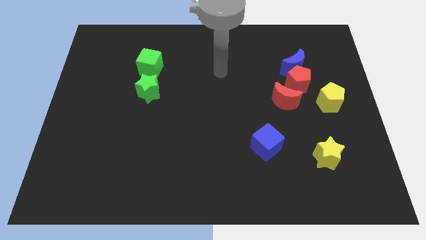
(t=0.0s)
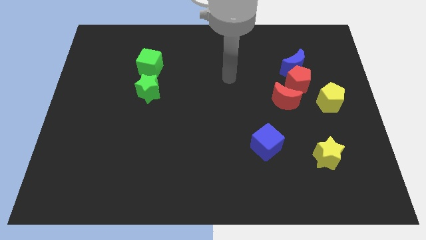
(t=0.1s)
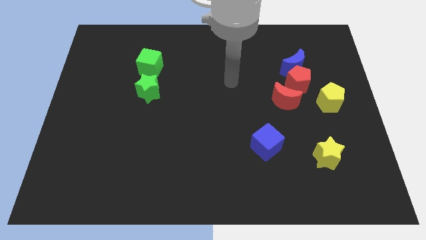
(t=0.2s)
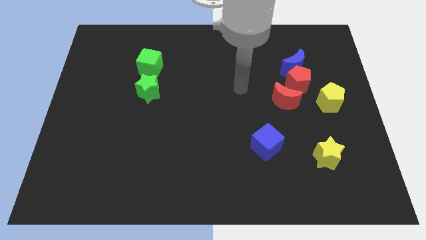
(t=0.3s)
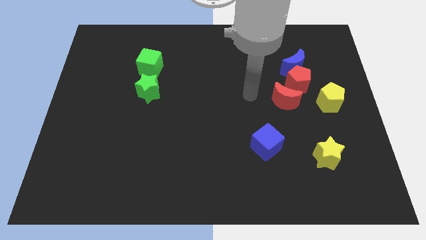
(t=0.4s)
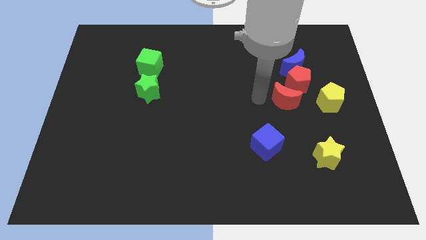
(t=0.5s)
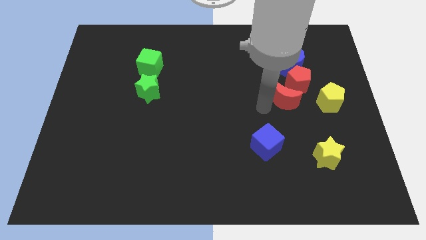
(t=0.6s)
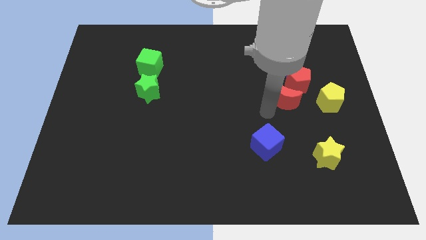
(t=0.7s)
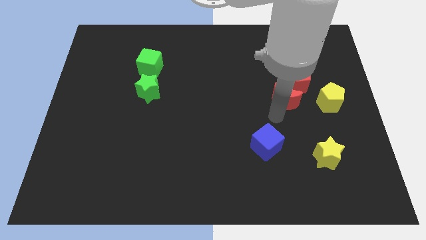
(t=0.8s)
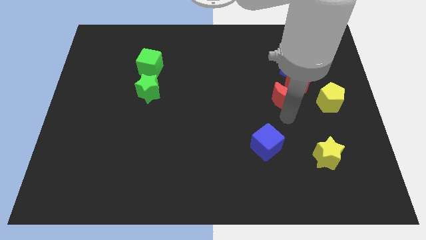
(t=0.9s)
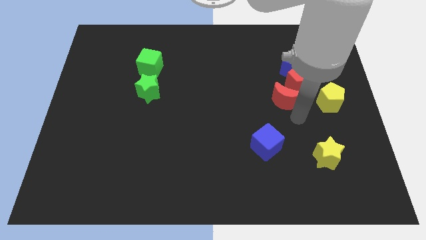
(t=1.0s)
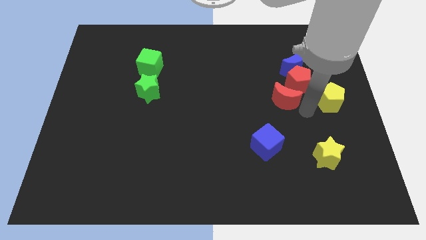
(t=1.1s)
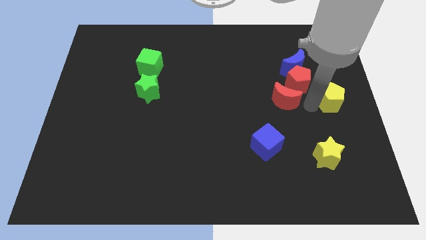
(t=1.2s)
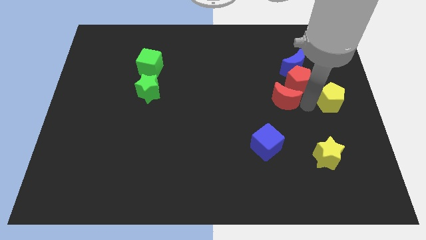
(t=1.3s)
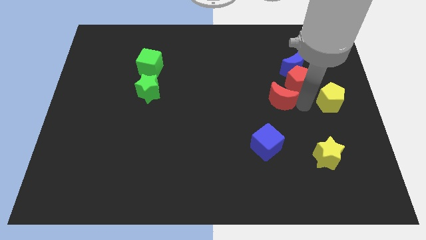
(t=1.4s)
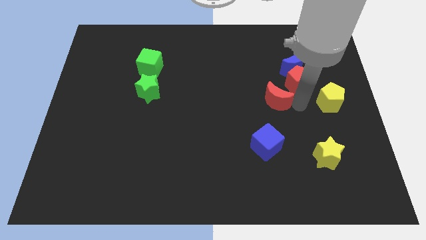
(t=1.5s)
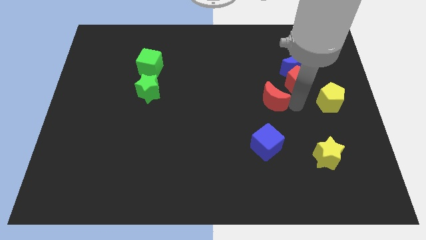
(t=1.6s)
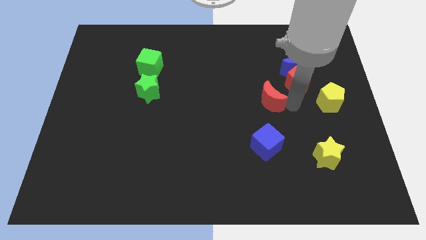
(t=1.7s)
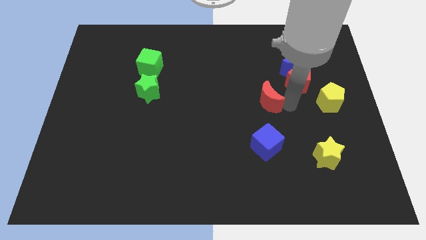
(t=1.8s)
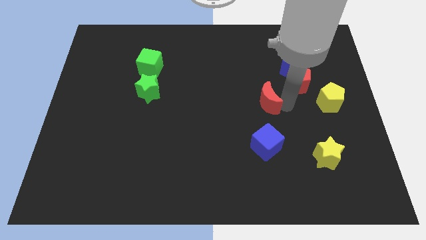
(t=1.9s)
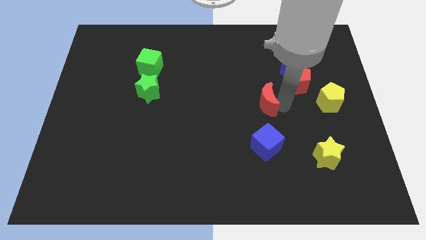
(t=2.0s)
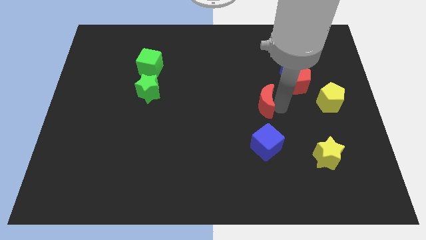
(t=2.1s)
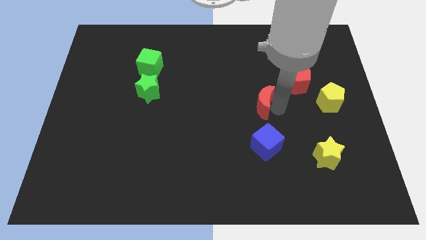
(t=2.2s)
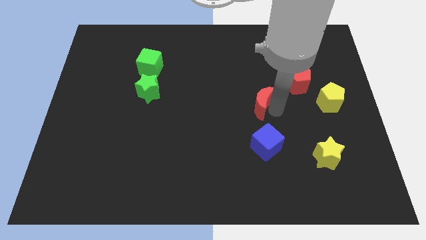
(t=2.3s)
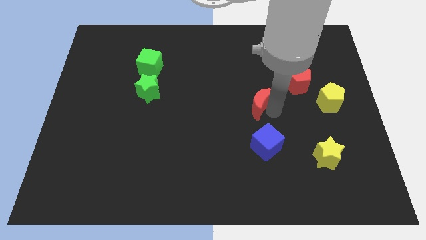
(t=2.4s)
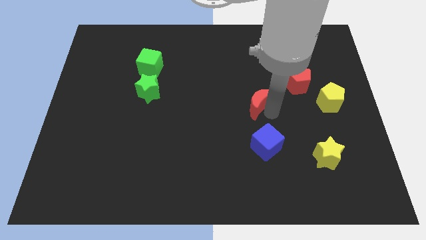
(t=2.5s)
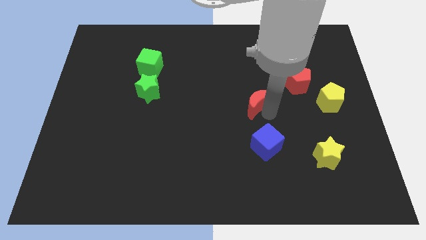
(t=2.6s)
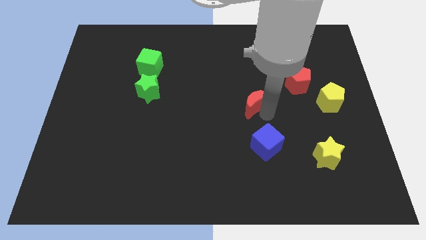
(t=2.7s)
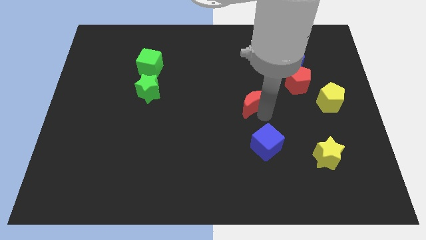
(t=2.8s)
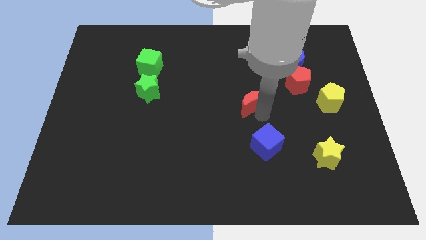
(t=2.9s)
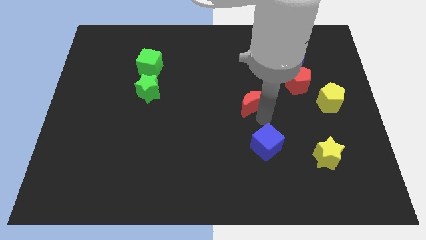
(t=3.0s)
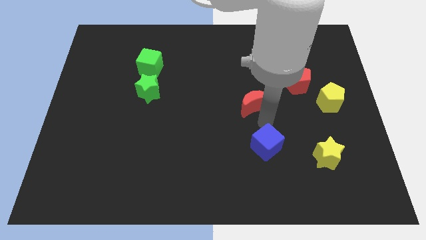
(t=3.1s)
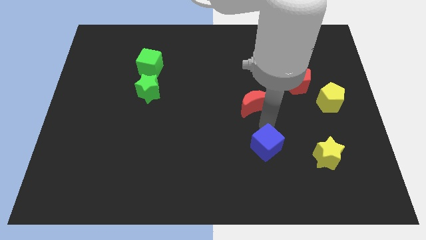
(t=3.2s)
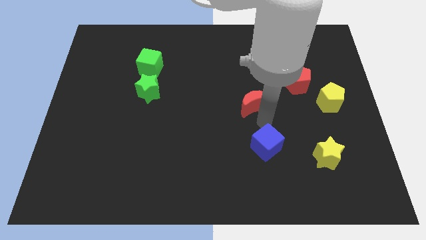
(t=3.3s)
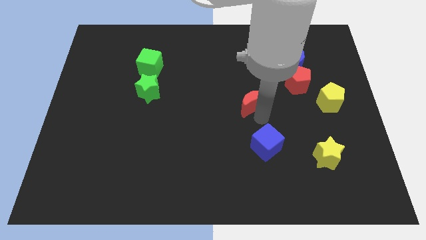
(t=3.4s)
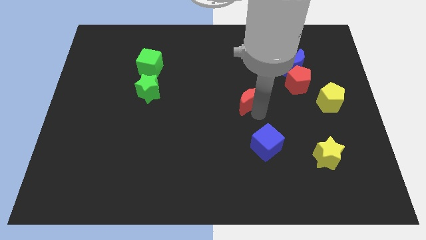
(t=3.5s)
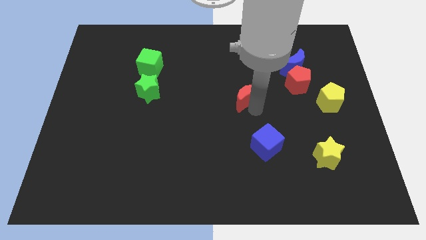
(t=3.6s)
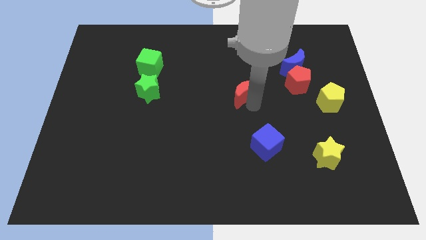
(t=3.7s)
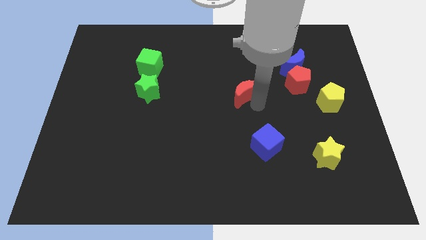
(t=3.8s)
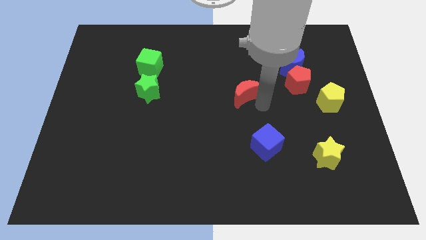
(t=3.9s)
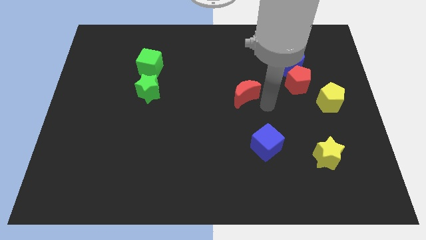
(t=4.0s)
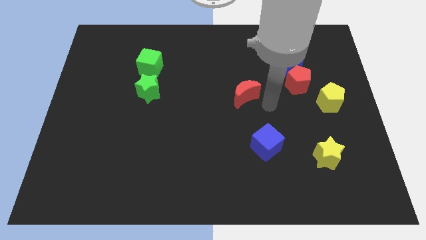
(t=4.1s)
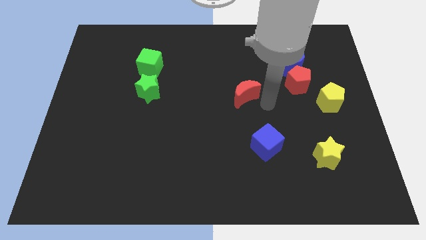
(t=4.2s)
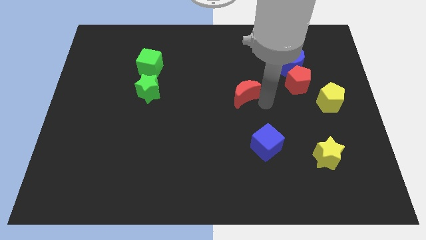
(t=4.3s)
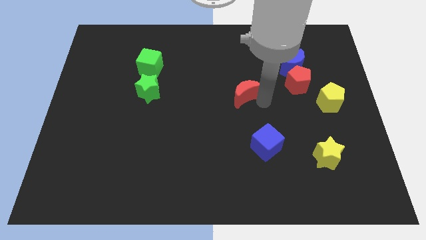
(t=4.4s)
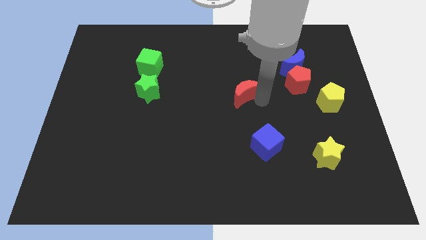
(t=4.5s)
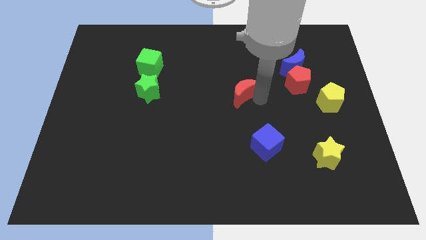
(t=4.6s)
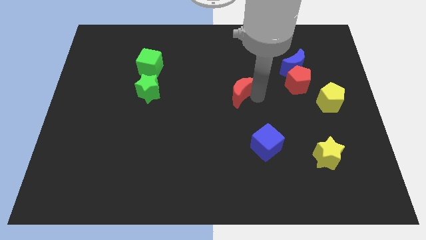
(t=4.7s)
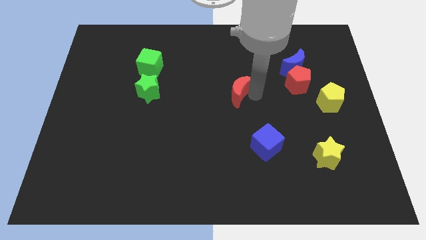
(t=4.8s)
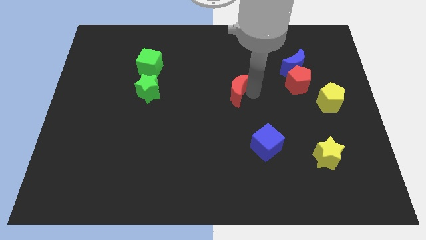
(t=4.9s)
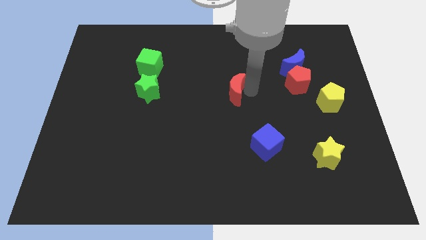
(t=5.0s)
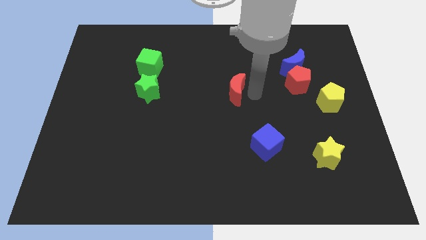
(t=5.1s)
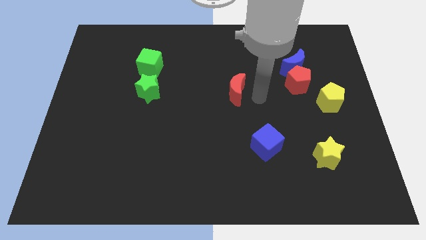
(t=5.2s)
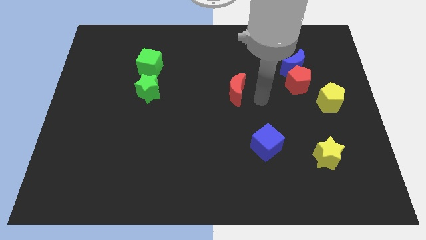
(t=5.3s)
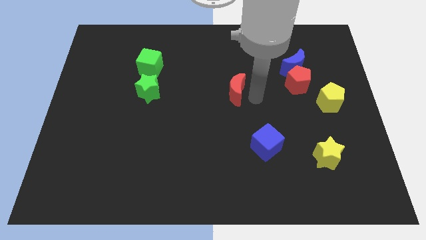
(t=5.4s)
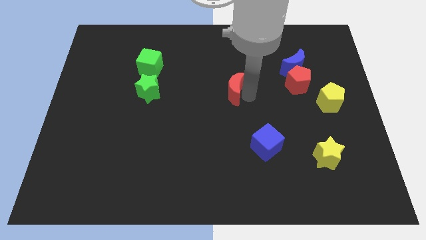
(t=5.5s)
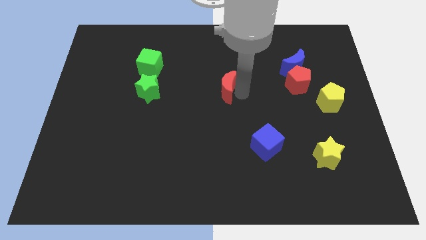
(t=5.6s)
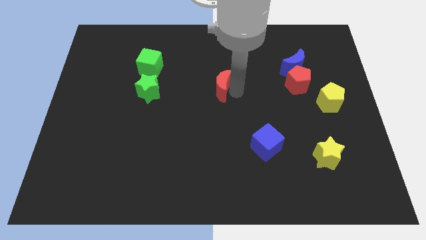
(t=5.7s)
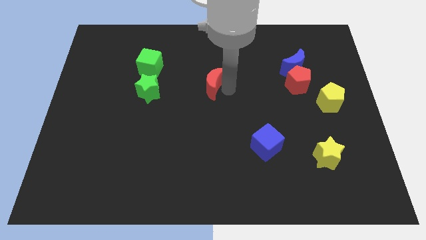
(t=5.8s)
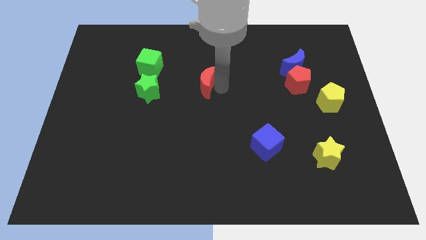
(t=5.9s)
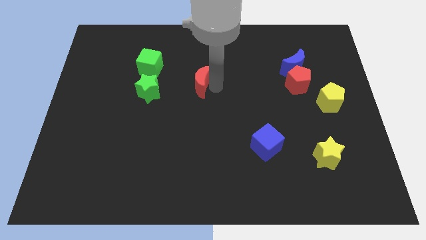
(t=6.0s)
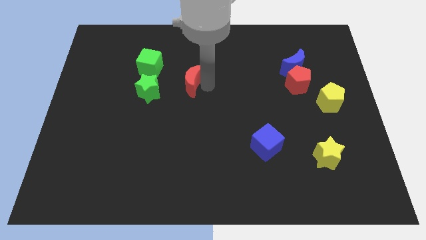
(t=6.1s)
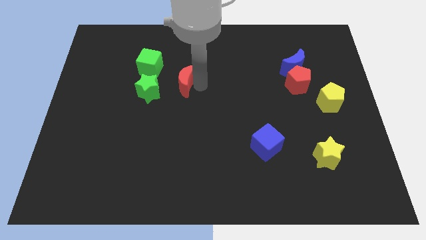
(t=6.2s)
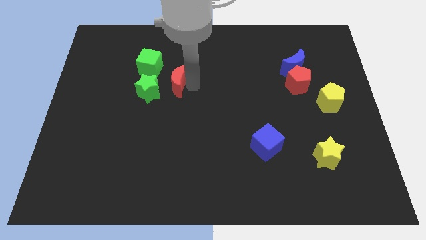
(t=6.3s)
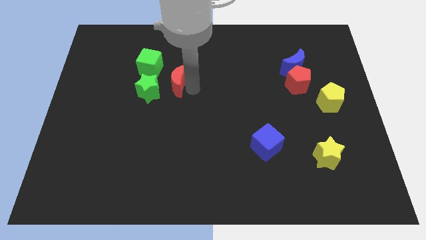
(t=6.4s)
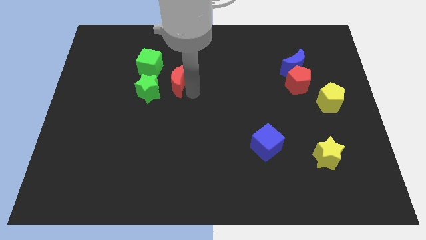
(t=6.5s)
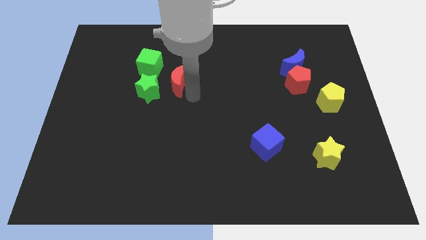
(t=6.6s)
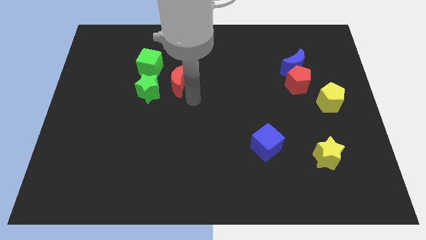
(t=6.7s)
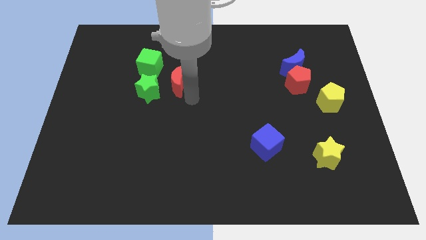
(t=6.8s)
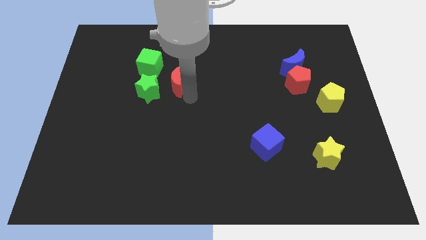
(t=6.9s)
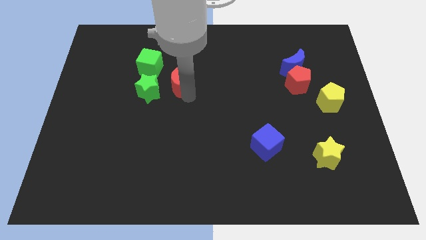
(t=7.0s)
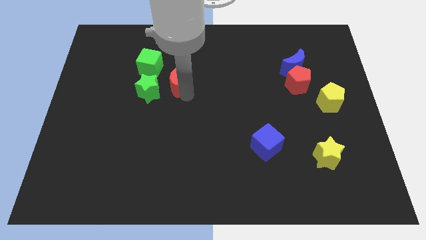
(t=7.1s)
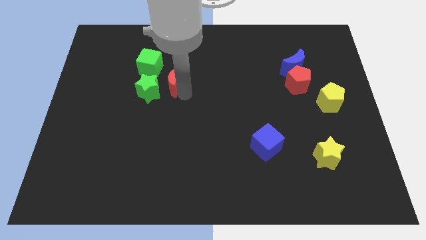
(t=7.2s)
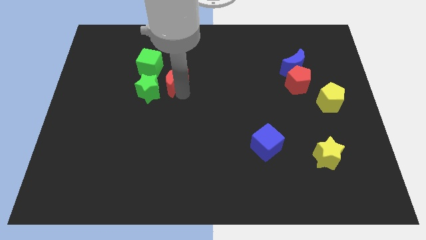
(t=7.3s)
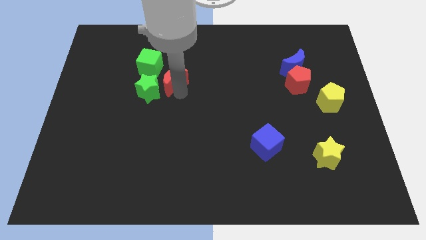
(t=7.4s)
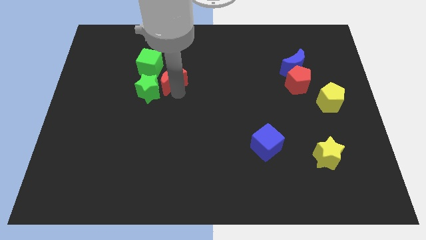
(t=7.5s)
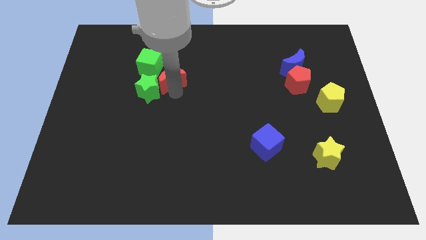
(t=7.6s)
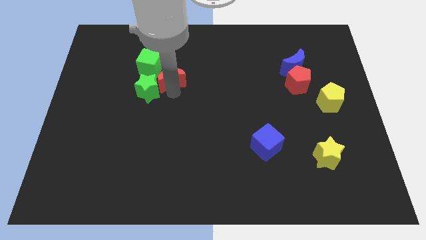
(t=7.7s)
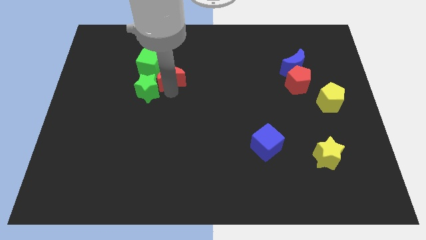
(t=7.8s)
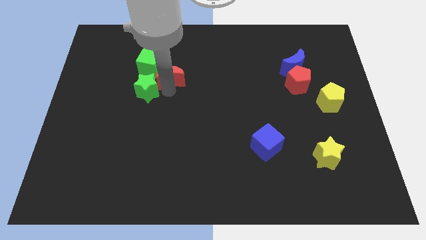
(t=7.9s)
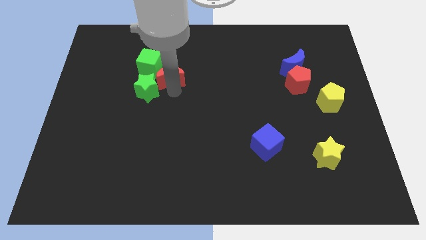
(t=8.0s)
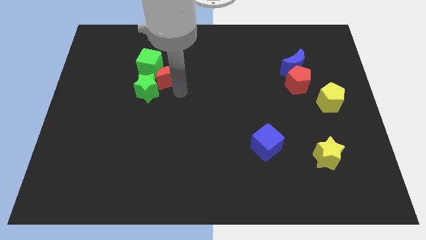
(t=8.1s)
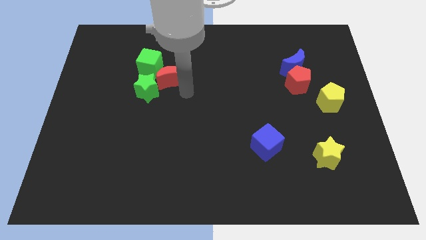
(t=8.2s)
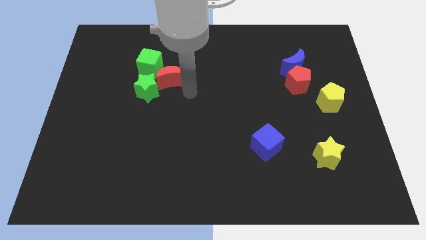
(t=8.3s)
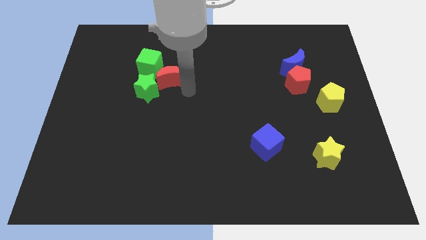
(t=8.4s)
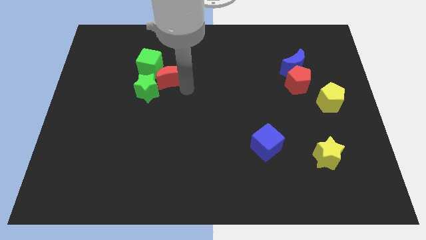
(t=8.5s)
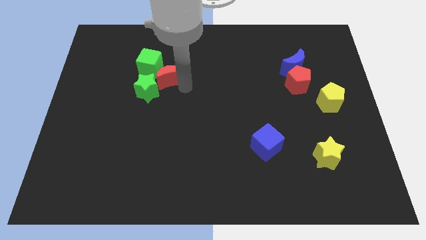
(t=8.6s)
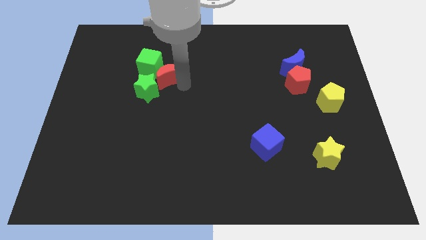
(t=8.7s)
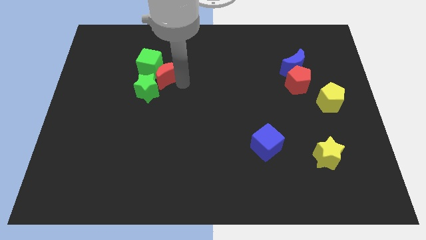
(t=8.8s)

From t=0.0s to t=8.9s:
put the red moon to the green cube
